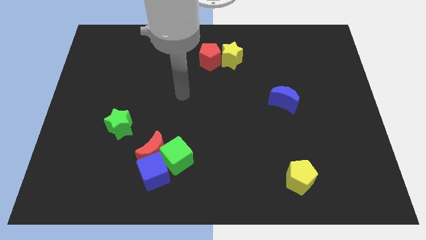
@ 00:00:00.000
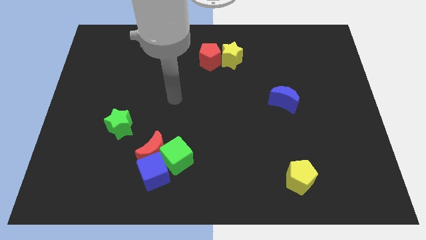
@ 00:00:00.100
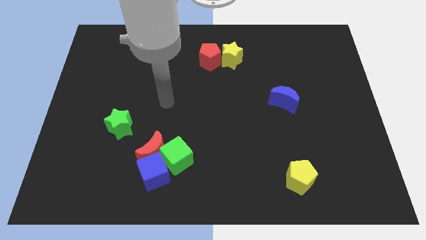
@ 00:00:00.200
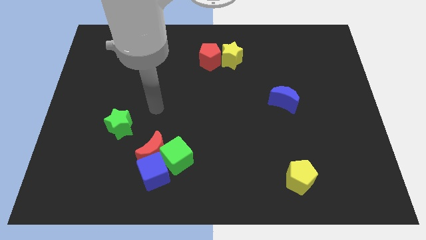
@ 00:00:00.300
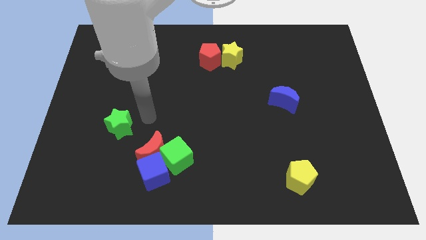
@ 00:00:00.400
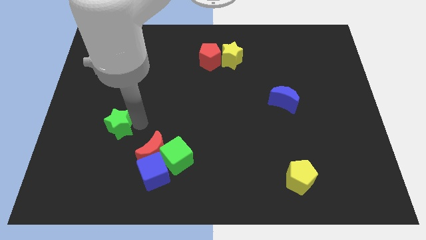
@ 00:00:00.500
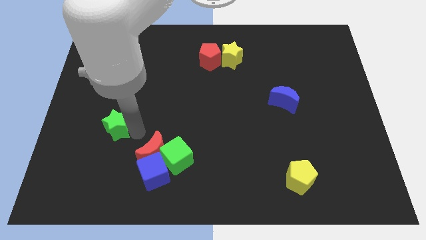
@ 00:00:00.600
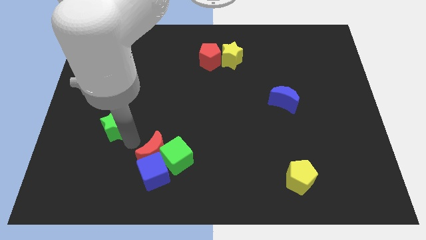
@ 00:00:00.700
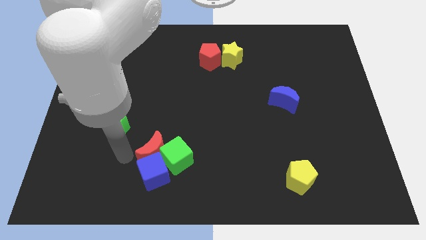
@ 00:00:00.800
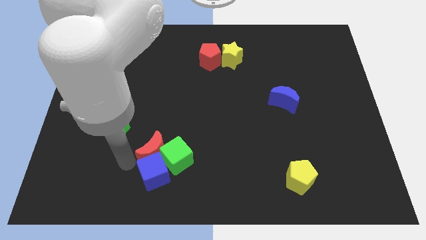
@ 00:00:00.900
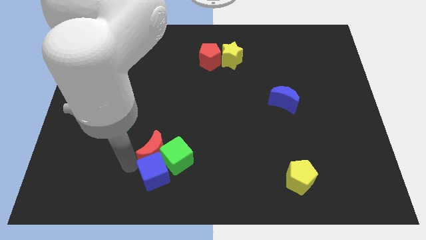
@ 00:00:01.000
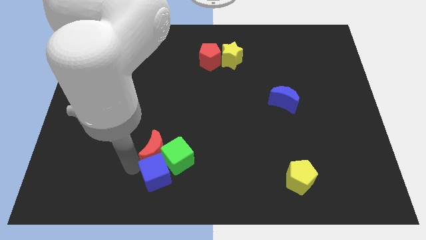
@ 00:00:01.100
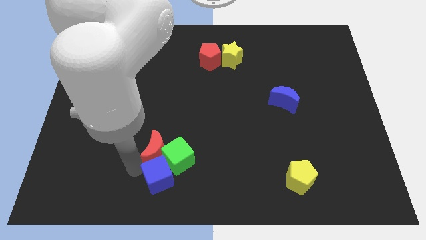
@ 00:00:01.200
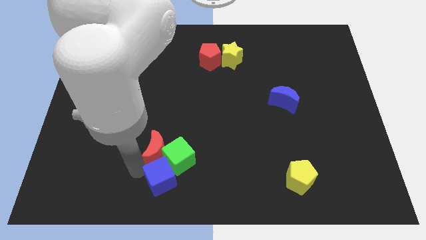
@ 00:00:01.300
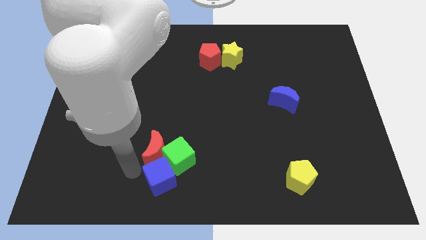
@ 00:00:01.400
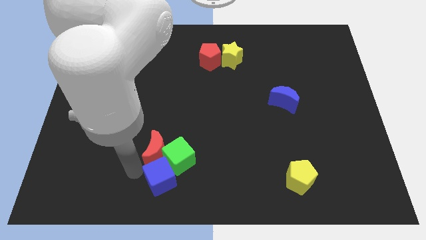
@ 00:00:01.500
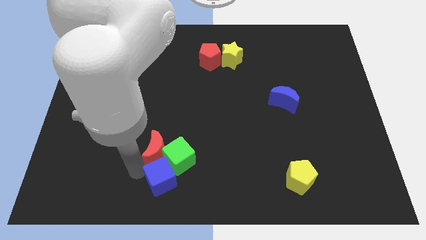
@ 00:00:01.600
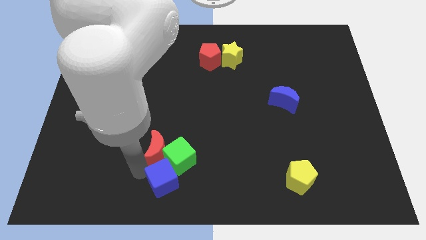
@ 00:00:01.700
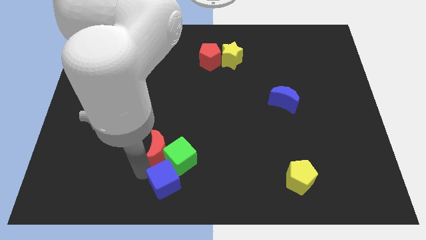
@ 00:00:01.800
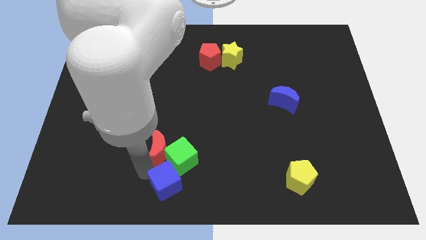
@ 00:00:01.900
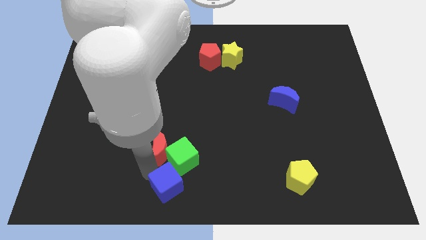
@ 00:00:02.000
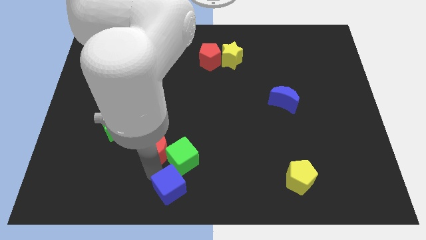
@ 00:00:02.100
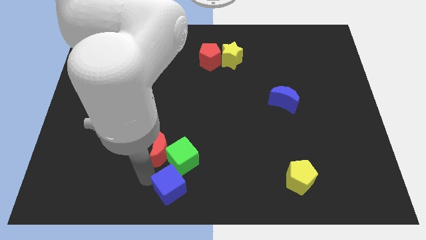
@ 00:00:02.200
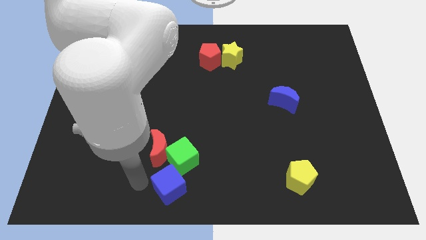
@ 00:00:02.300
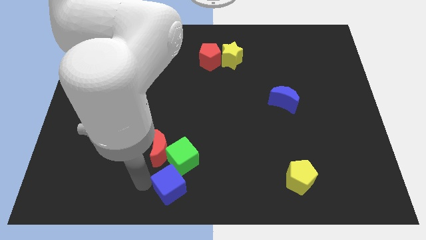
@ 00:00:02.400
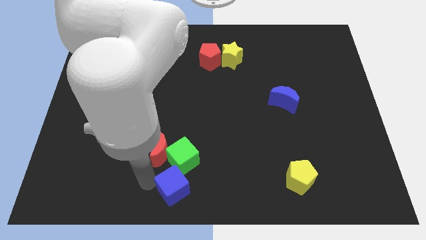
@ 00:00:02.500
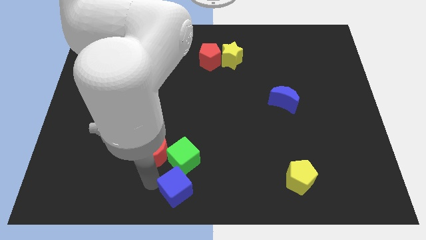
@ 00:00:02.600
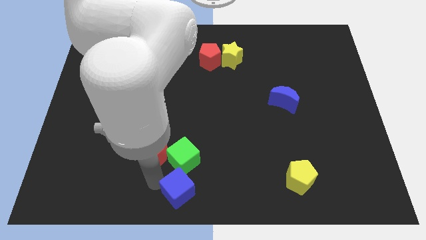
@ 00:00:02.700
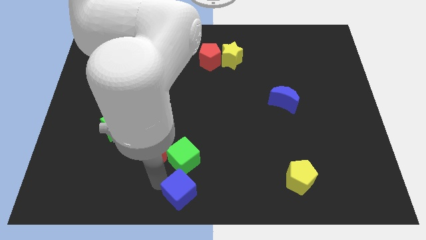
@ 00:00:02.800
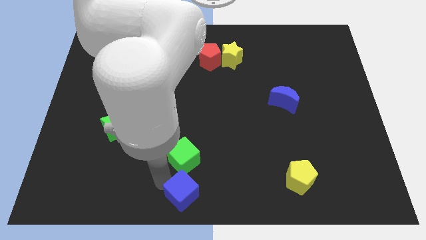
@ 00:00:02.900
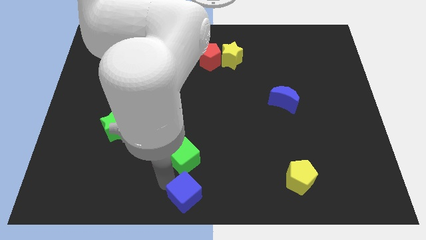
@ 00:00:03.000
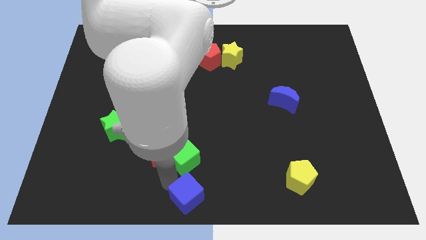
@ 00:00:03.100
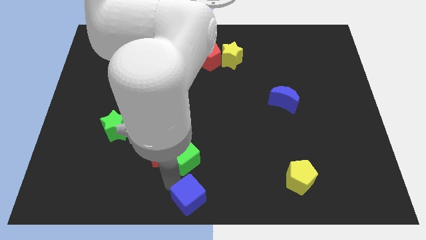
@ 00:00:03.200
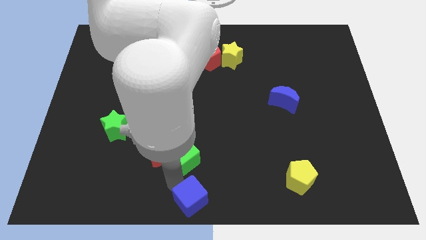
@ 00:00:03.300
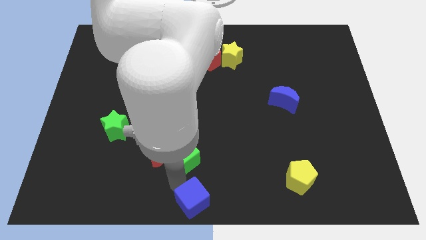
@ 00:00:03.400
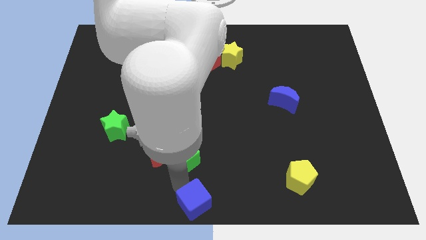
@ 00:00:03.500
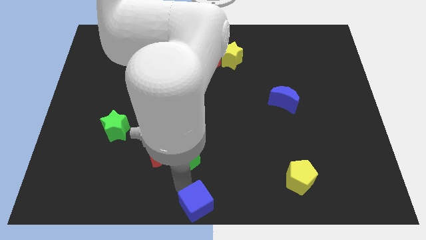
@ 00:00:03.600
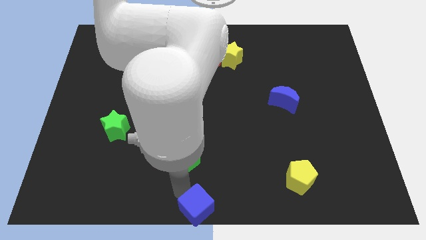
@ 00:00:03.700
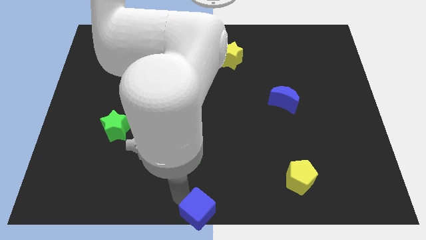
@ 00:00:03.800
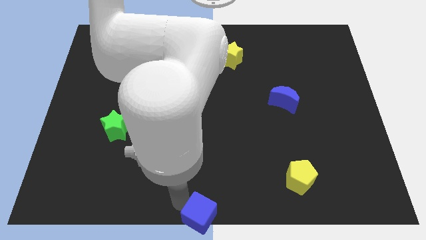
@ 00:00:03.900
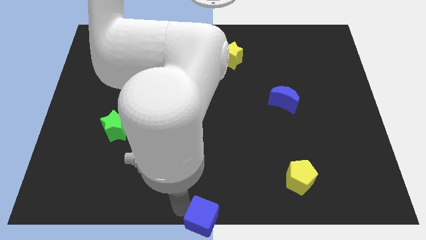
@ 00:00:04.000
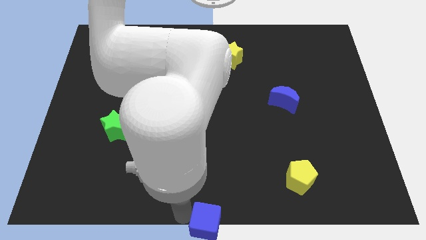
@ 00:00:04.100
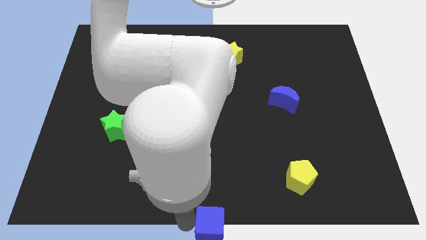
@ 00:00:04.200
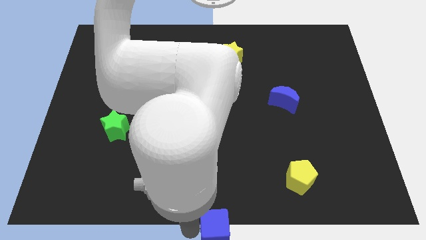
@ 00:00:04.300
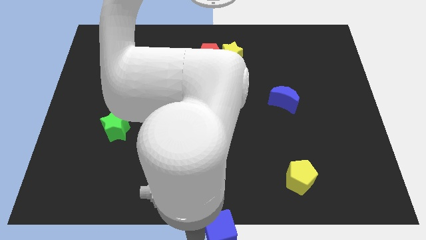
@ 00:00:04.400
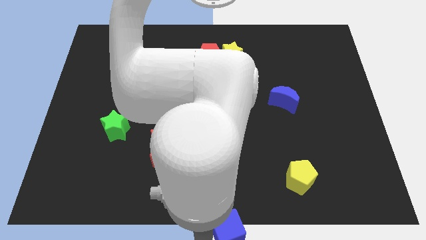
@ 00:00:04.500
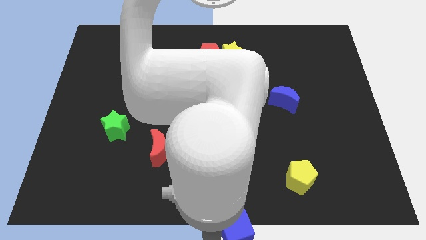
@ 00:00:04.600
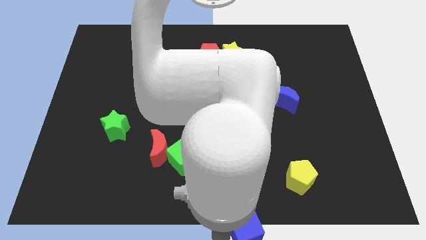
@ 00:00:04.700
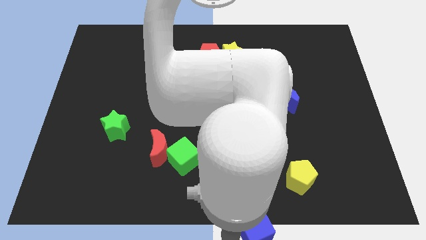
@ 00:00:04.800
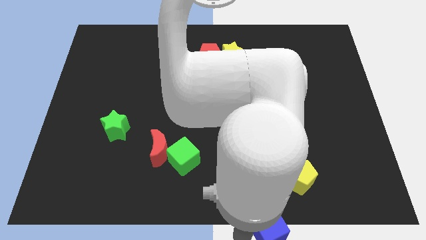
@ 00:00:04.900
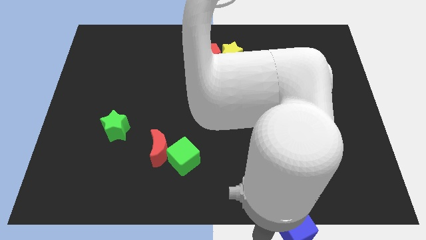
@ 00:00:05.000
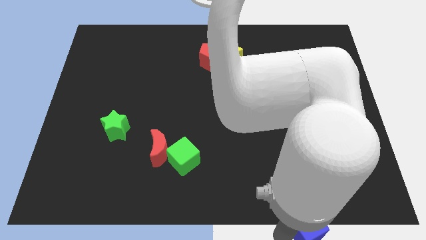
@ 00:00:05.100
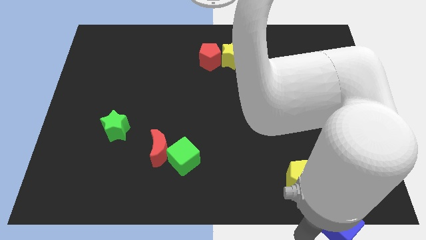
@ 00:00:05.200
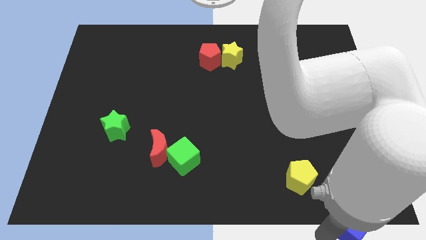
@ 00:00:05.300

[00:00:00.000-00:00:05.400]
put the blue cube to the bottom right of the board
